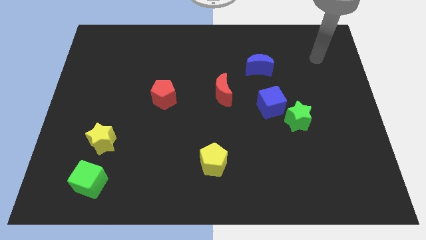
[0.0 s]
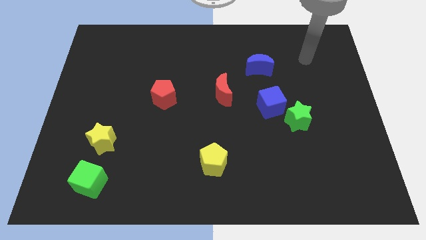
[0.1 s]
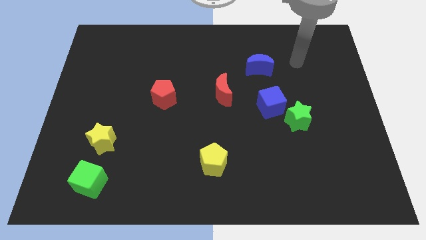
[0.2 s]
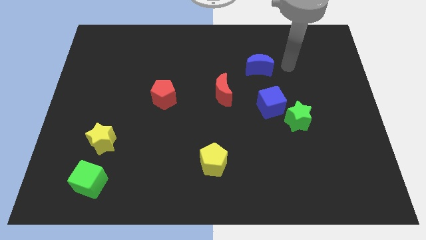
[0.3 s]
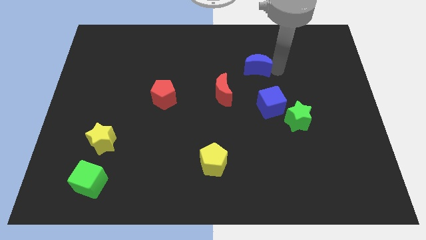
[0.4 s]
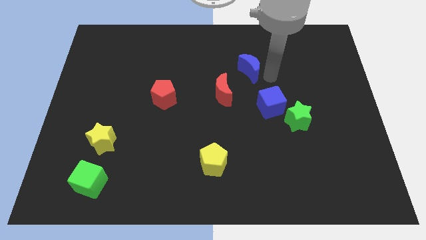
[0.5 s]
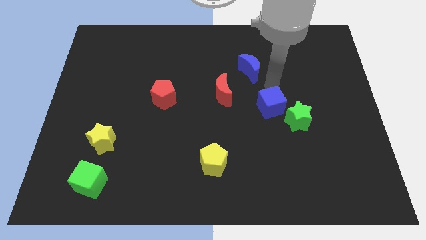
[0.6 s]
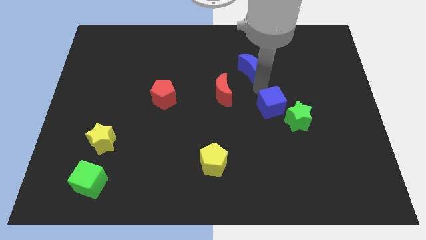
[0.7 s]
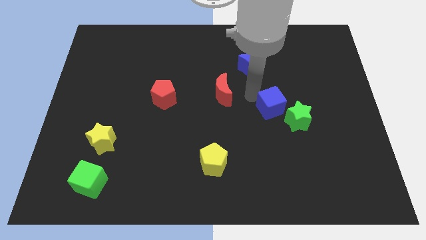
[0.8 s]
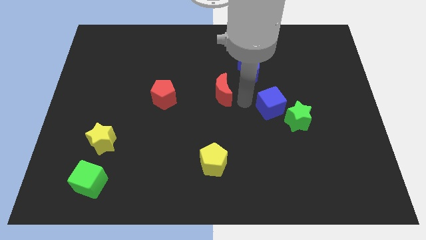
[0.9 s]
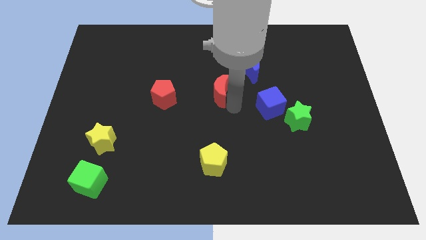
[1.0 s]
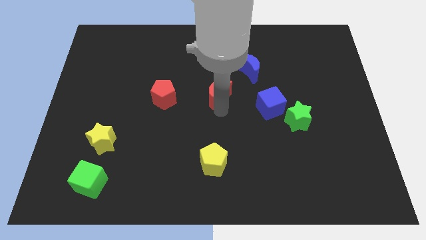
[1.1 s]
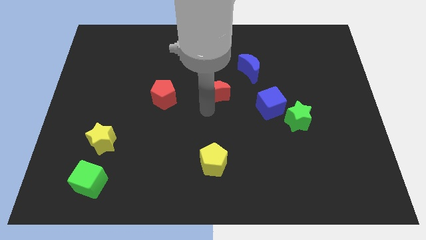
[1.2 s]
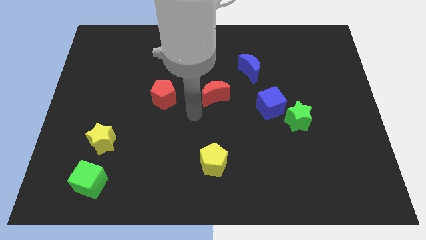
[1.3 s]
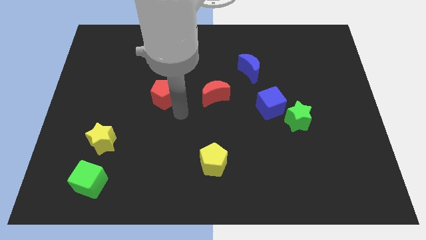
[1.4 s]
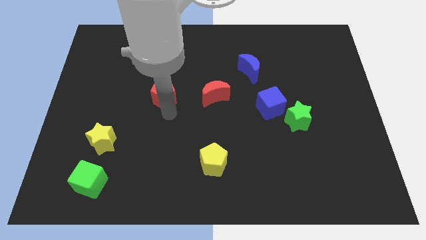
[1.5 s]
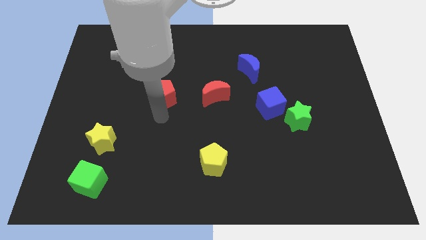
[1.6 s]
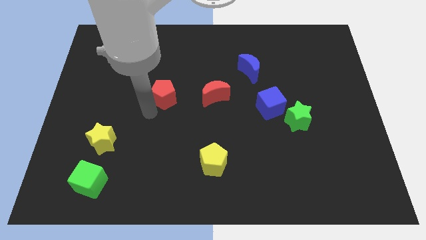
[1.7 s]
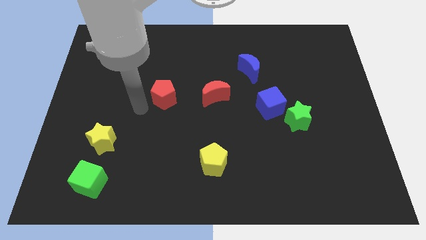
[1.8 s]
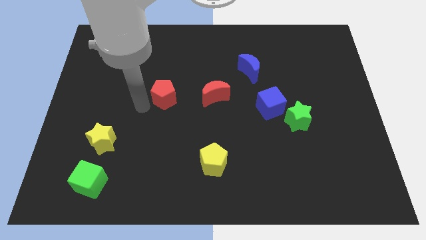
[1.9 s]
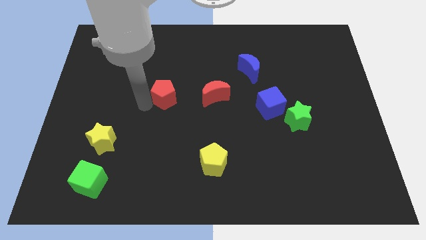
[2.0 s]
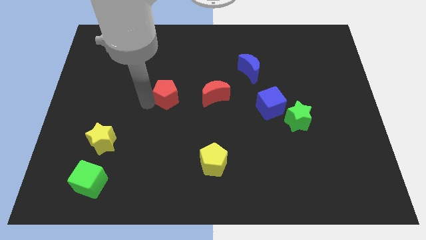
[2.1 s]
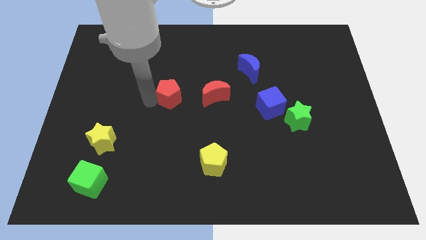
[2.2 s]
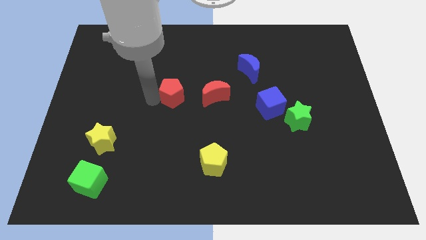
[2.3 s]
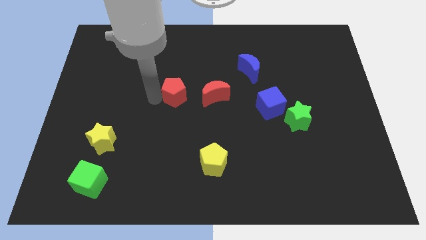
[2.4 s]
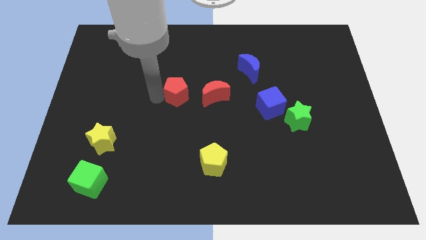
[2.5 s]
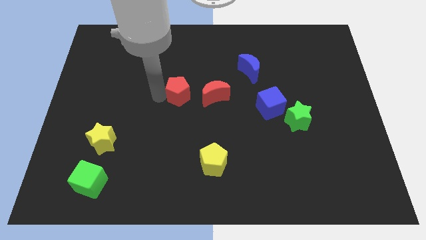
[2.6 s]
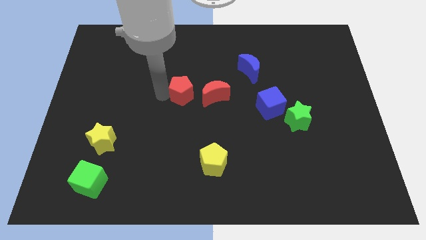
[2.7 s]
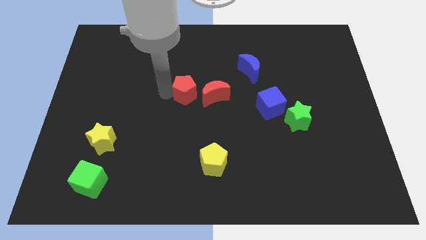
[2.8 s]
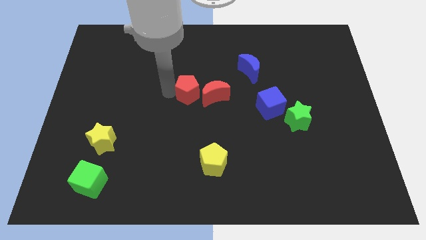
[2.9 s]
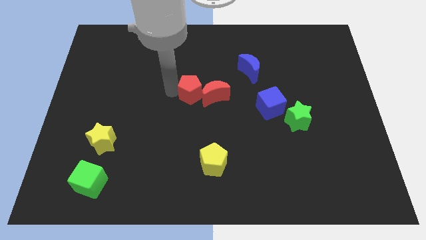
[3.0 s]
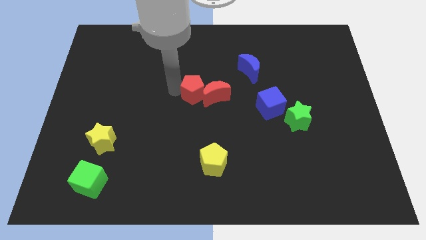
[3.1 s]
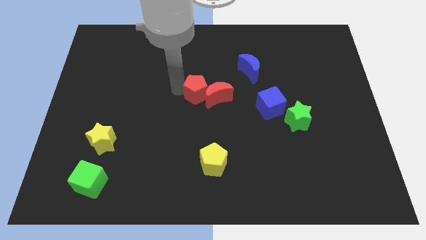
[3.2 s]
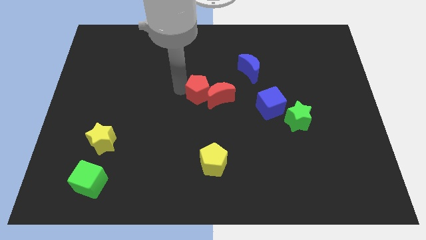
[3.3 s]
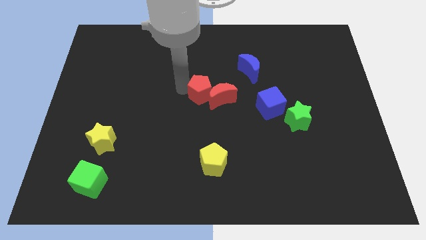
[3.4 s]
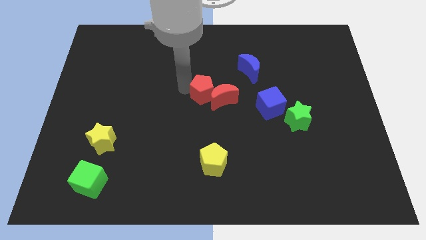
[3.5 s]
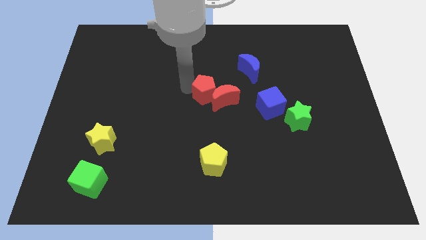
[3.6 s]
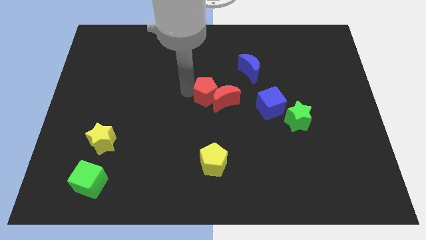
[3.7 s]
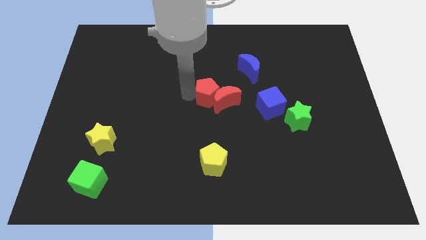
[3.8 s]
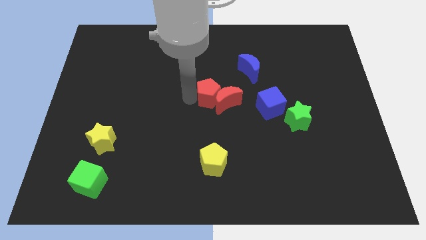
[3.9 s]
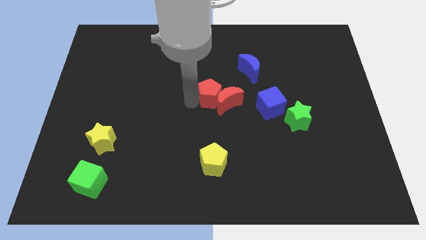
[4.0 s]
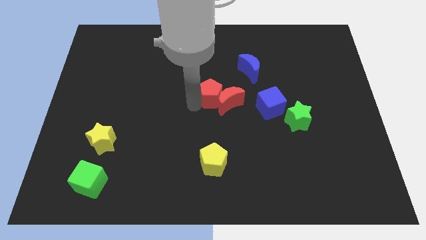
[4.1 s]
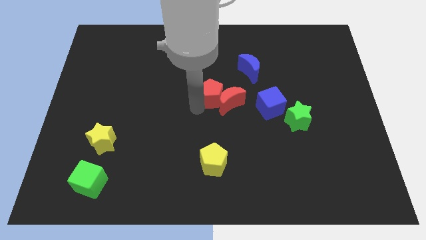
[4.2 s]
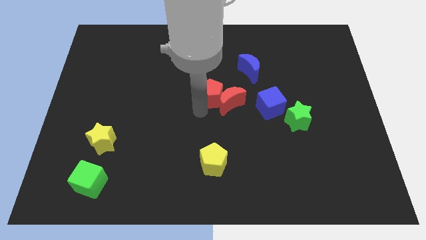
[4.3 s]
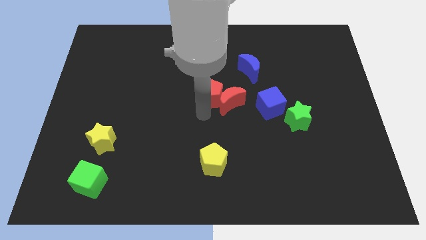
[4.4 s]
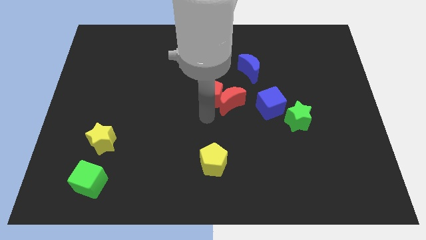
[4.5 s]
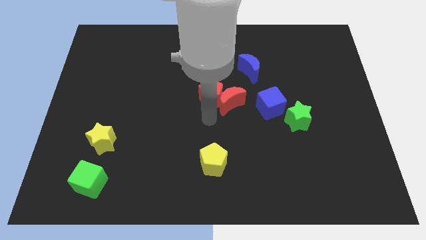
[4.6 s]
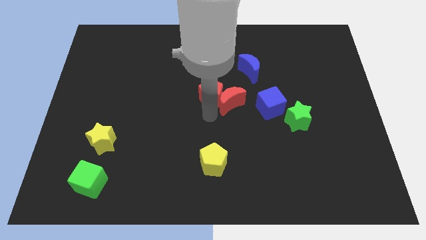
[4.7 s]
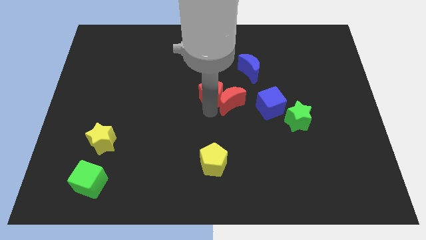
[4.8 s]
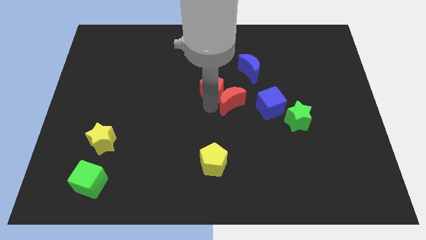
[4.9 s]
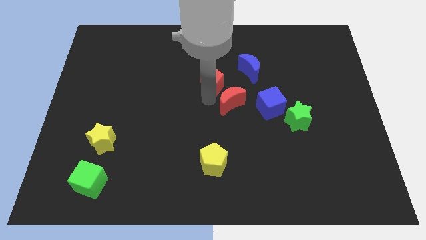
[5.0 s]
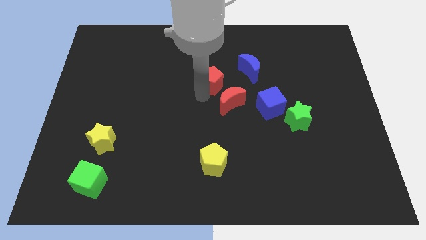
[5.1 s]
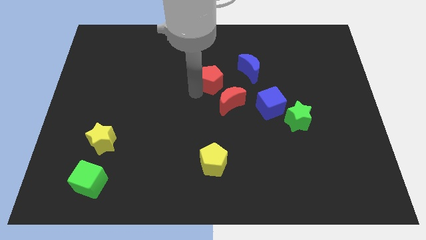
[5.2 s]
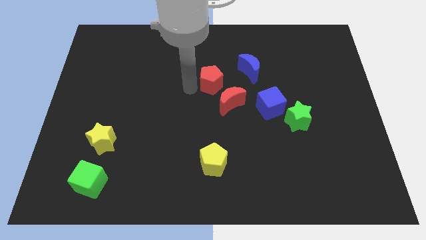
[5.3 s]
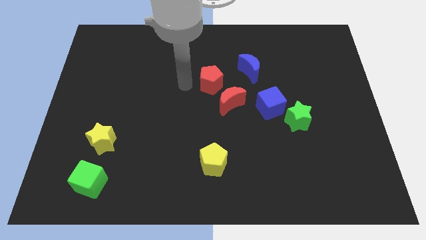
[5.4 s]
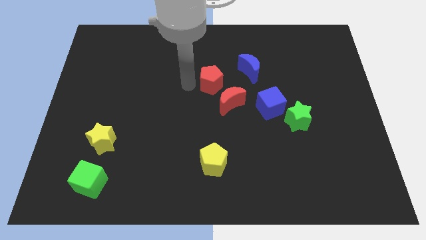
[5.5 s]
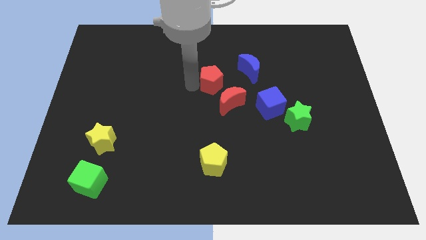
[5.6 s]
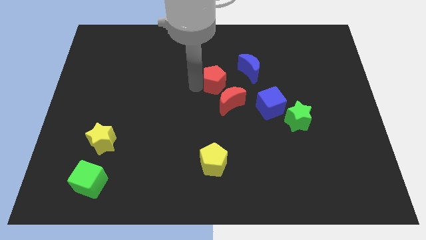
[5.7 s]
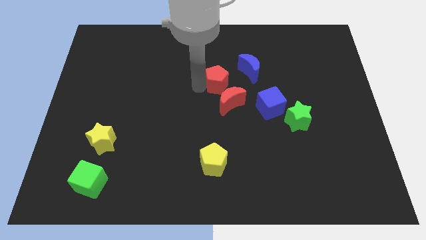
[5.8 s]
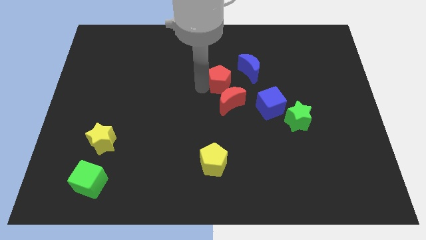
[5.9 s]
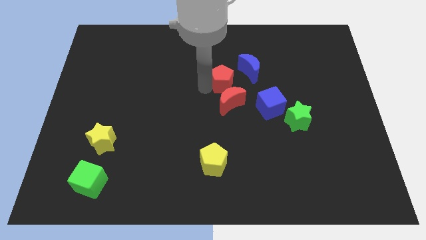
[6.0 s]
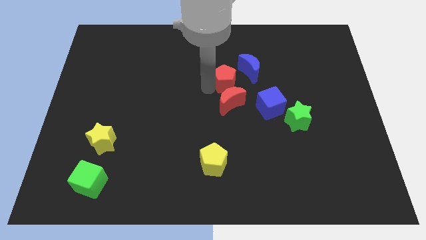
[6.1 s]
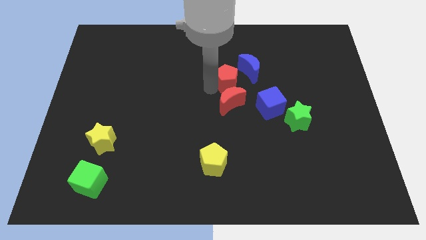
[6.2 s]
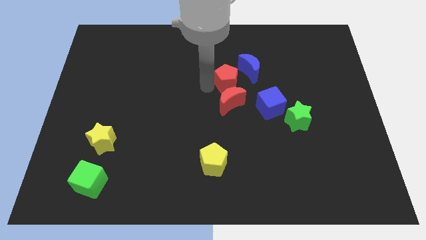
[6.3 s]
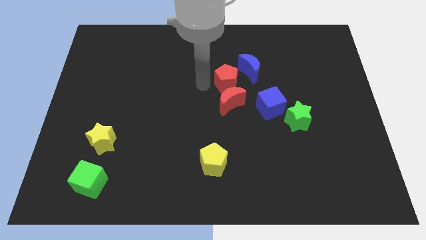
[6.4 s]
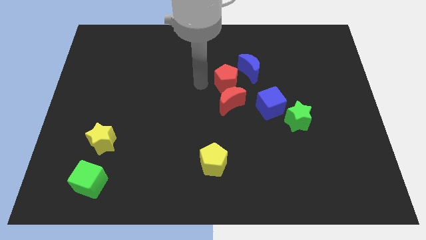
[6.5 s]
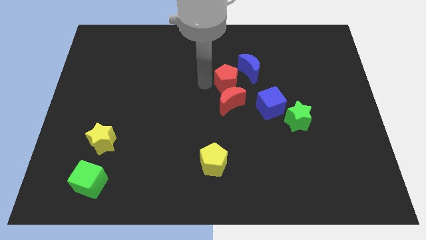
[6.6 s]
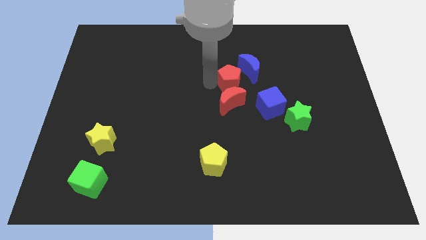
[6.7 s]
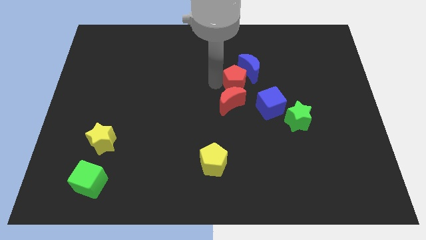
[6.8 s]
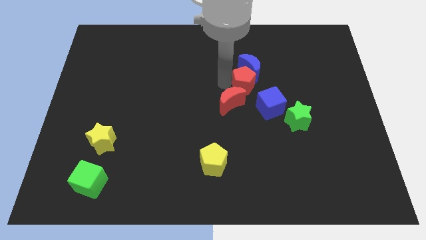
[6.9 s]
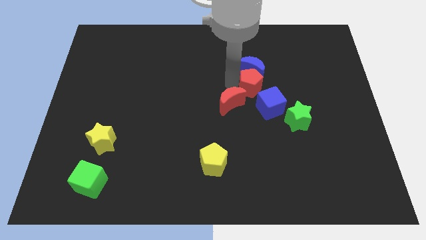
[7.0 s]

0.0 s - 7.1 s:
slide the red pentagon right

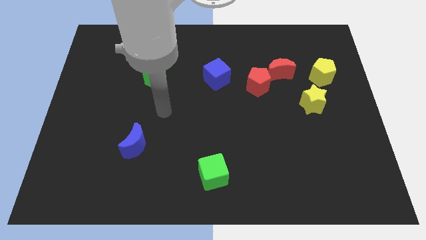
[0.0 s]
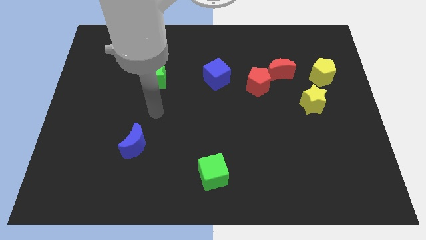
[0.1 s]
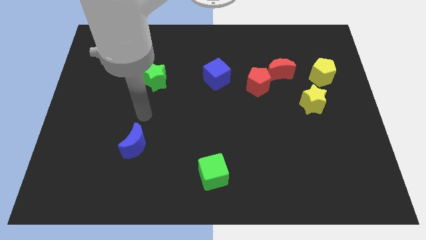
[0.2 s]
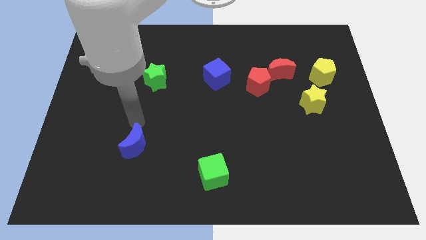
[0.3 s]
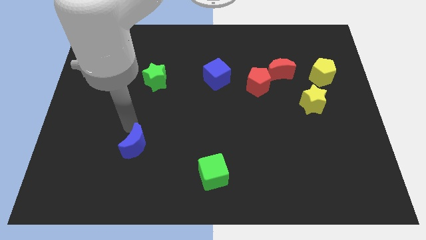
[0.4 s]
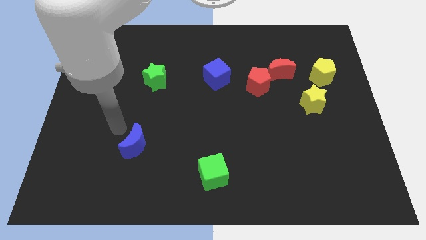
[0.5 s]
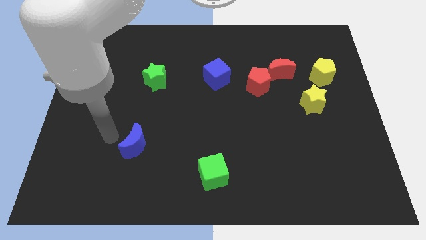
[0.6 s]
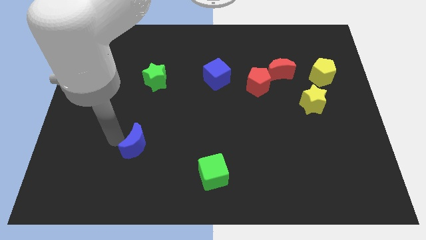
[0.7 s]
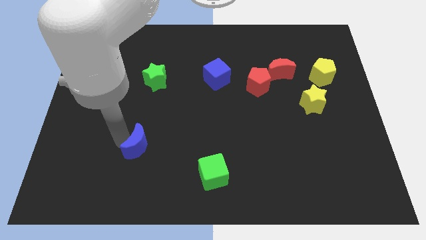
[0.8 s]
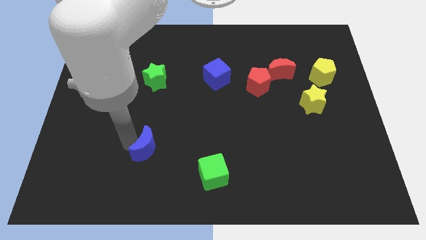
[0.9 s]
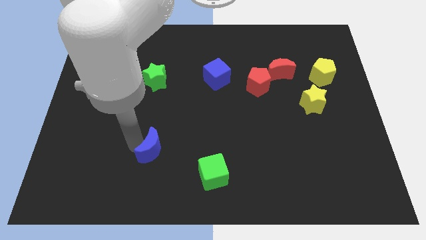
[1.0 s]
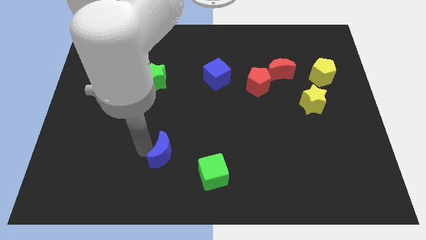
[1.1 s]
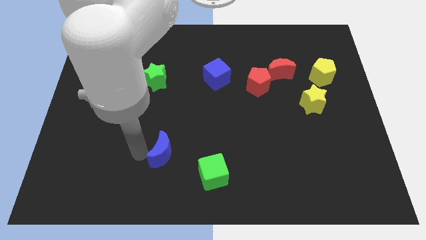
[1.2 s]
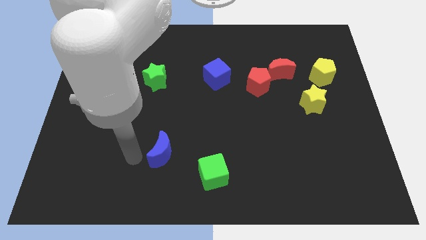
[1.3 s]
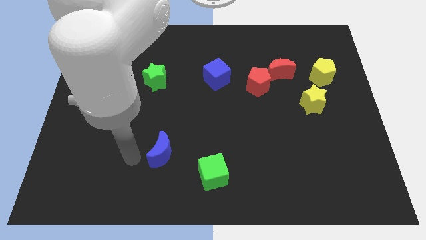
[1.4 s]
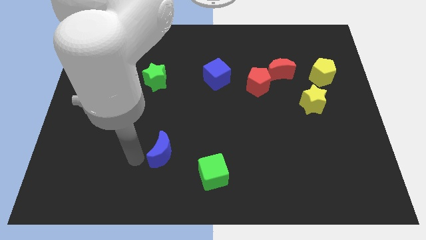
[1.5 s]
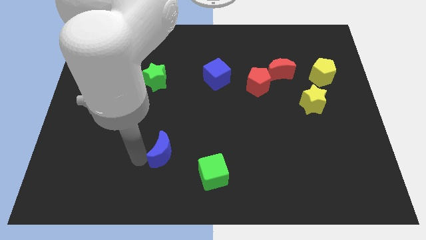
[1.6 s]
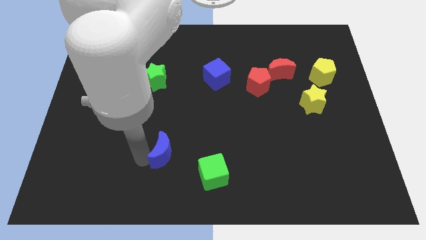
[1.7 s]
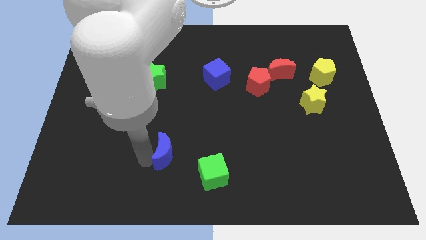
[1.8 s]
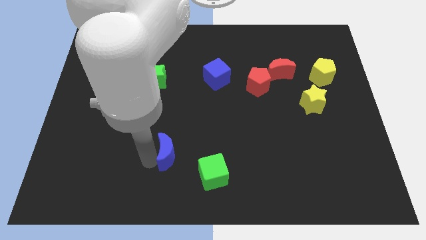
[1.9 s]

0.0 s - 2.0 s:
slightly move the blue moon to the right
